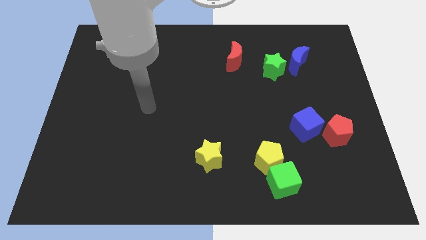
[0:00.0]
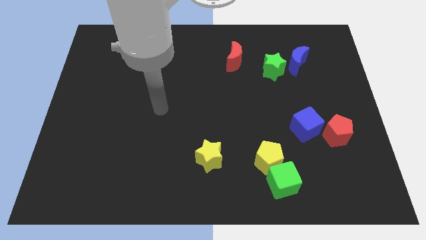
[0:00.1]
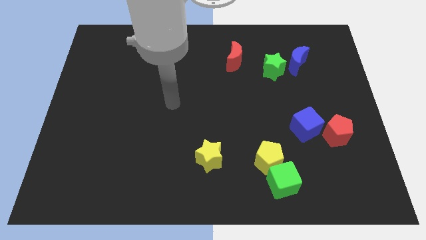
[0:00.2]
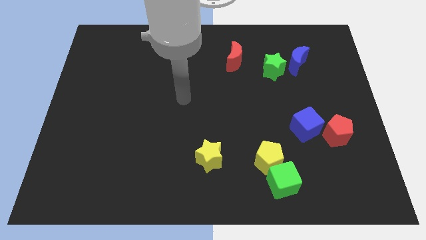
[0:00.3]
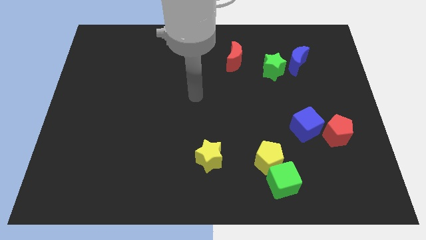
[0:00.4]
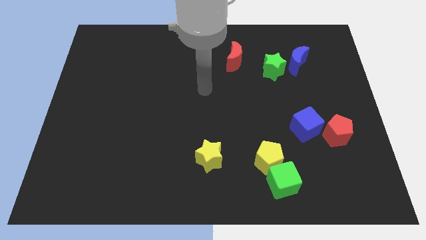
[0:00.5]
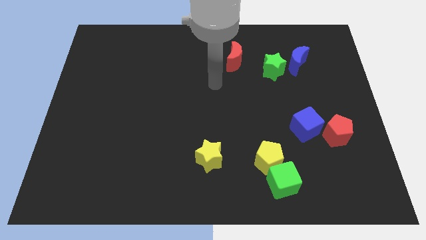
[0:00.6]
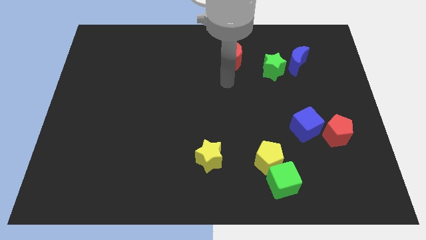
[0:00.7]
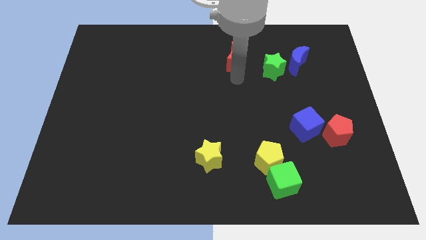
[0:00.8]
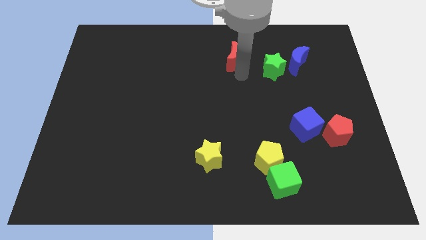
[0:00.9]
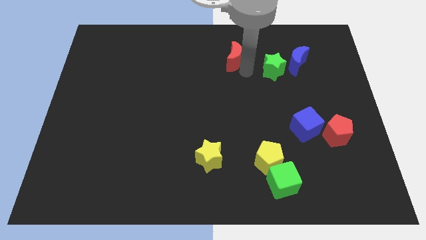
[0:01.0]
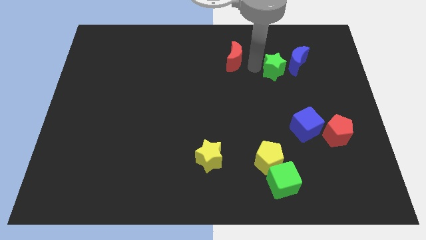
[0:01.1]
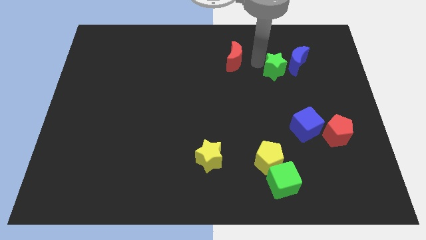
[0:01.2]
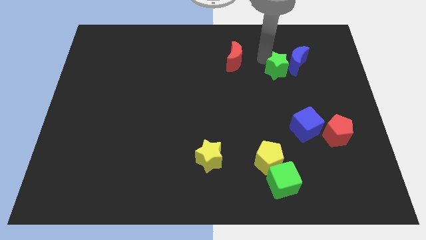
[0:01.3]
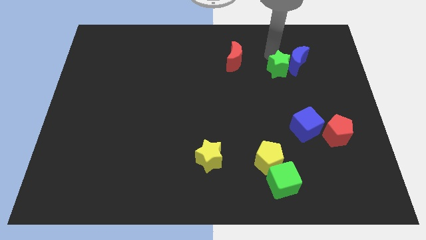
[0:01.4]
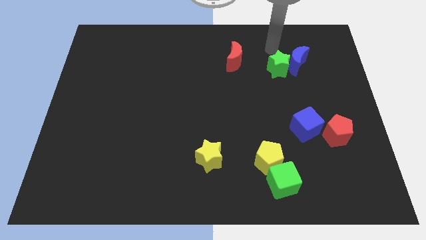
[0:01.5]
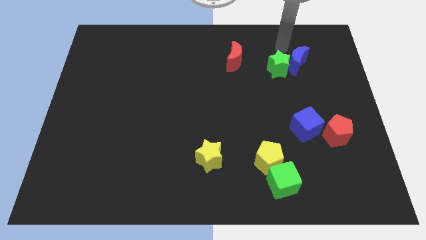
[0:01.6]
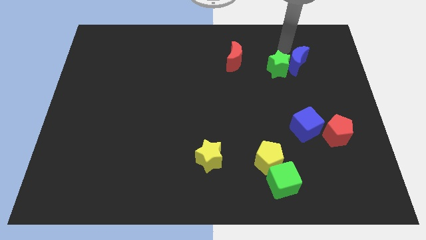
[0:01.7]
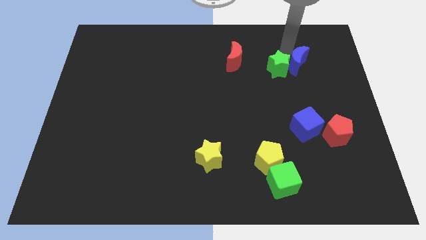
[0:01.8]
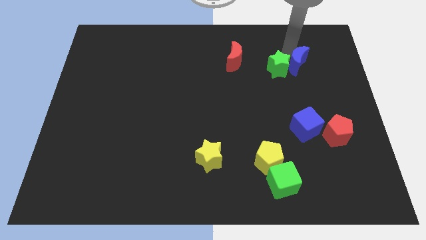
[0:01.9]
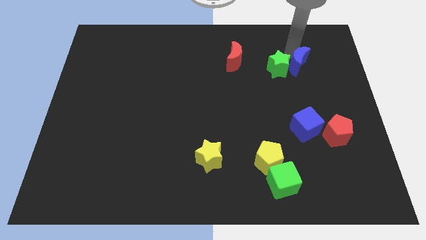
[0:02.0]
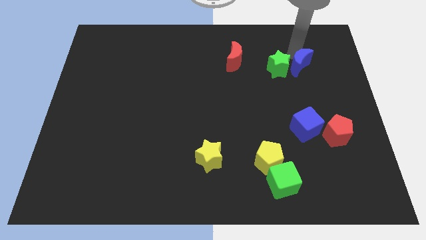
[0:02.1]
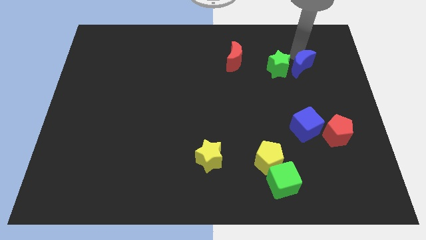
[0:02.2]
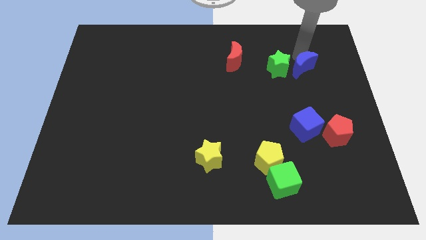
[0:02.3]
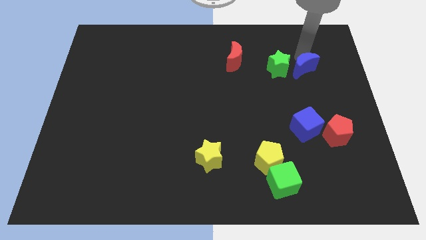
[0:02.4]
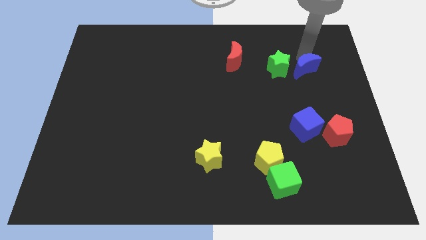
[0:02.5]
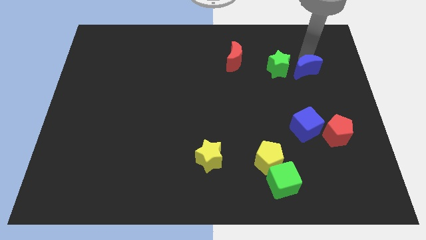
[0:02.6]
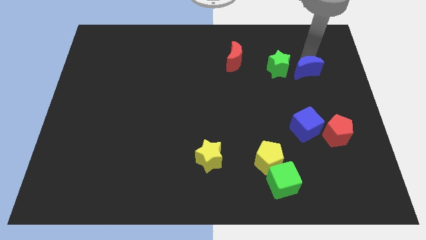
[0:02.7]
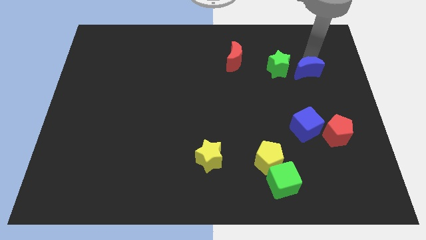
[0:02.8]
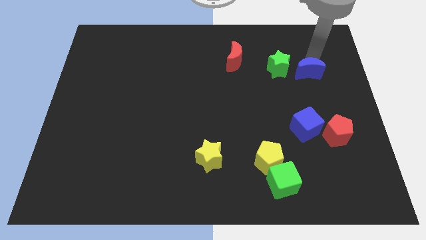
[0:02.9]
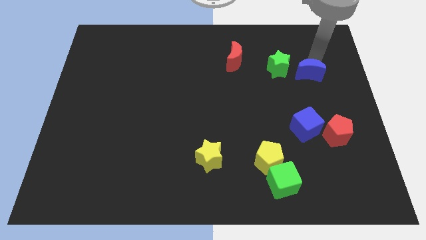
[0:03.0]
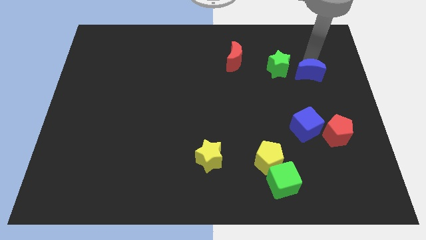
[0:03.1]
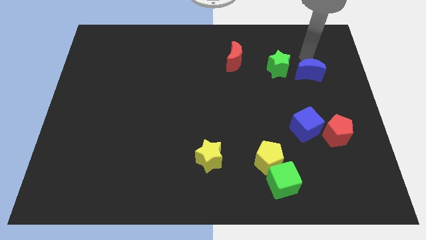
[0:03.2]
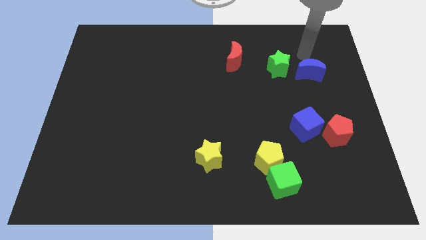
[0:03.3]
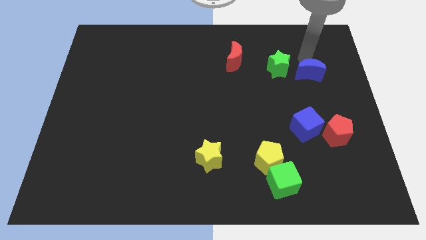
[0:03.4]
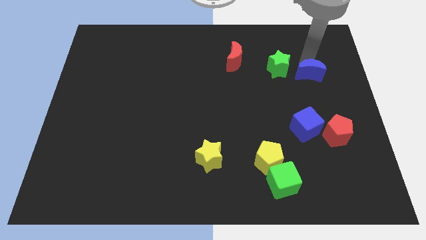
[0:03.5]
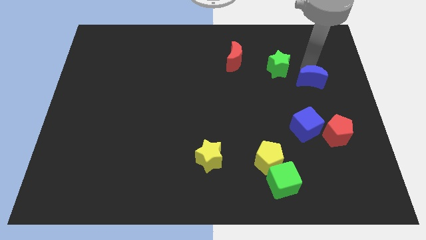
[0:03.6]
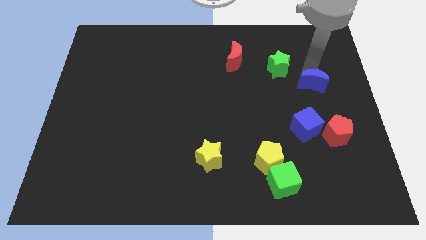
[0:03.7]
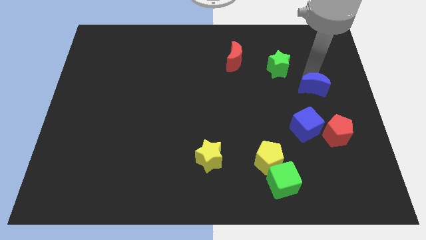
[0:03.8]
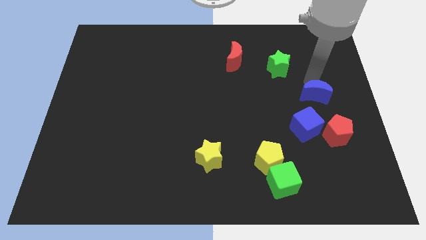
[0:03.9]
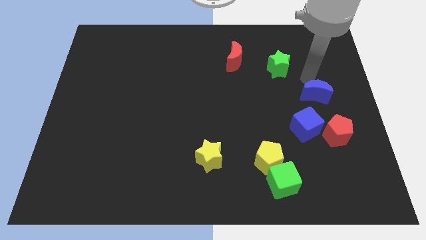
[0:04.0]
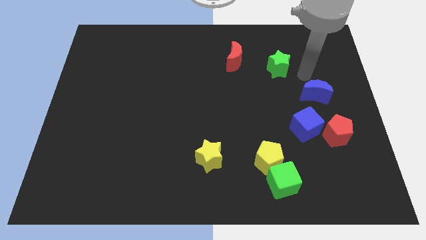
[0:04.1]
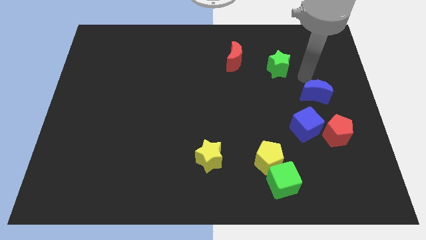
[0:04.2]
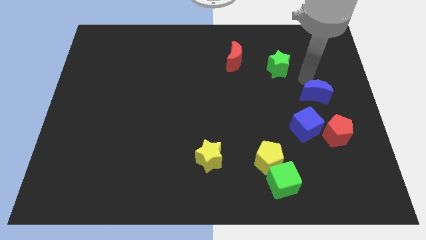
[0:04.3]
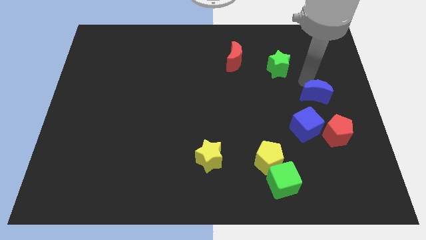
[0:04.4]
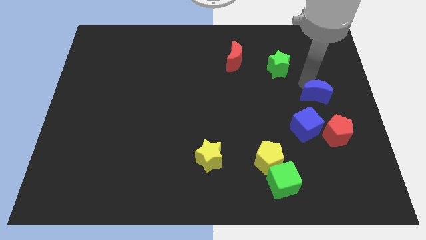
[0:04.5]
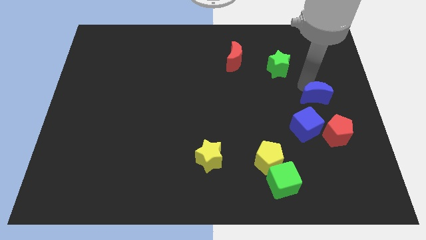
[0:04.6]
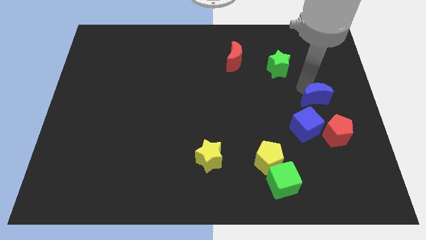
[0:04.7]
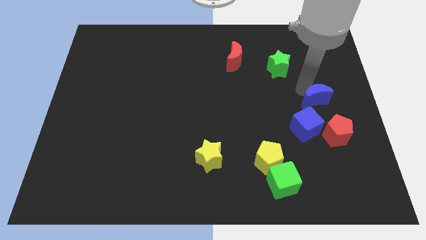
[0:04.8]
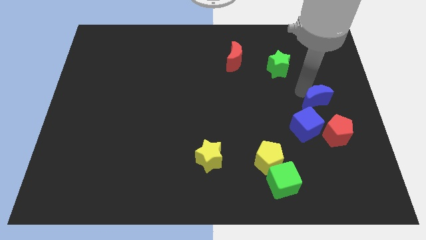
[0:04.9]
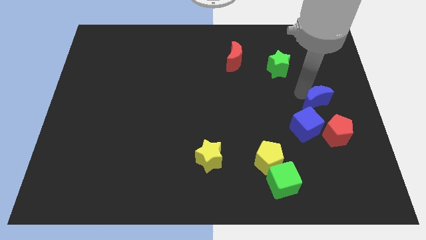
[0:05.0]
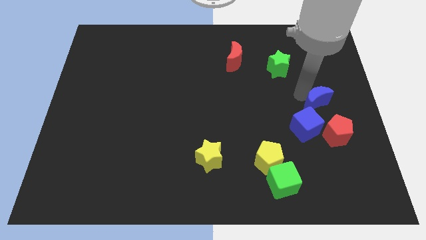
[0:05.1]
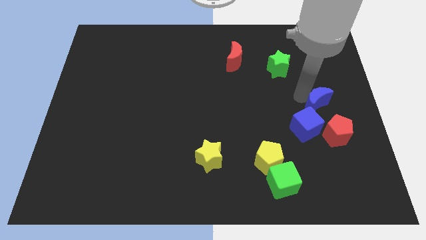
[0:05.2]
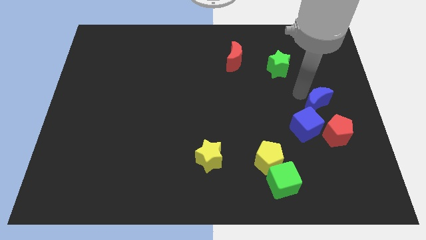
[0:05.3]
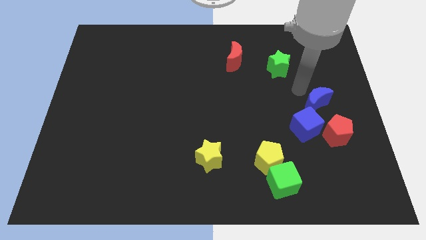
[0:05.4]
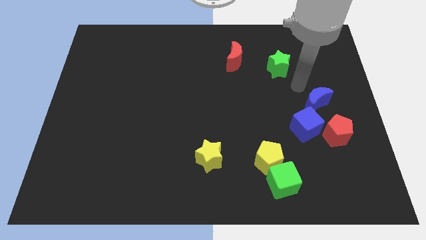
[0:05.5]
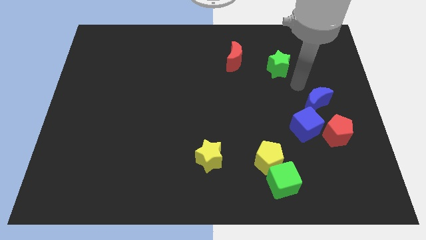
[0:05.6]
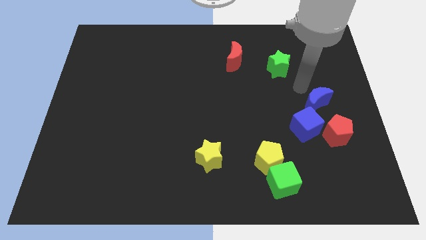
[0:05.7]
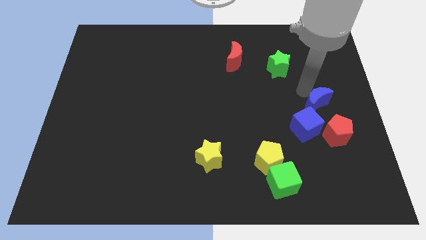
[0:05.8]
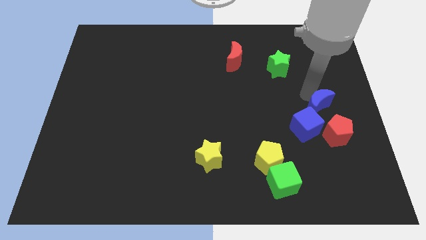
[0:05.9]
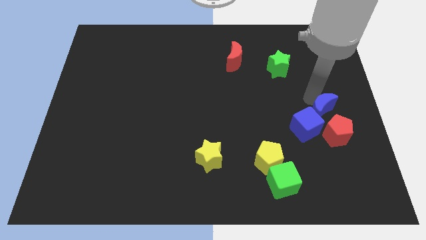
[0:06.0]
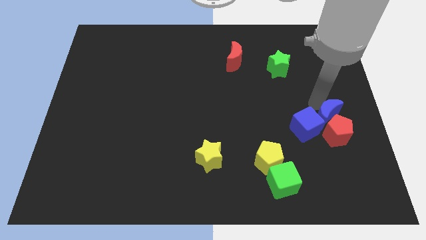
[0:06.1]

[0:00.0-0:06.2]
move the blue moon close to the red pentagon

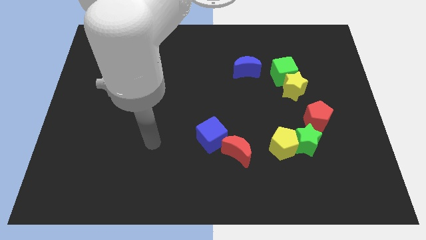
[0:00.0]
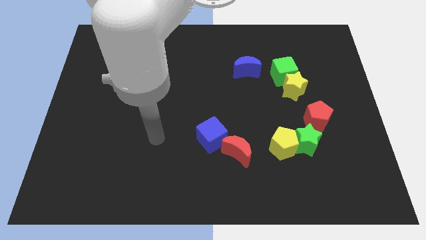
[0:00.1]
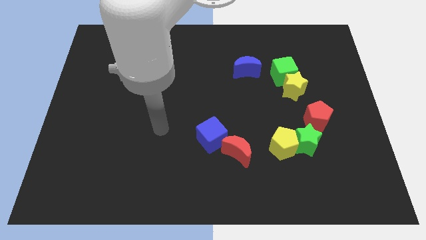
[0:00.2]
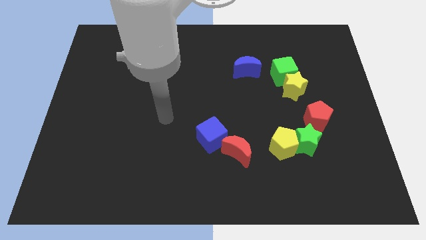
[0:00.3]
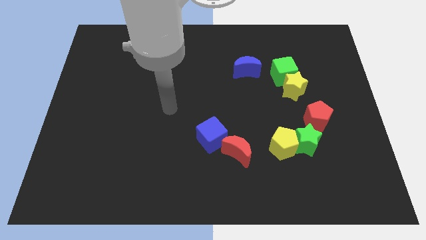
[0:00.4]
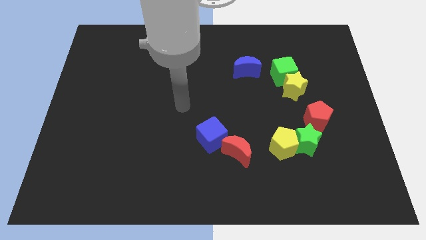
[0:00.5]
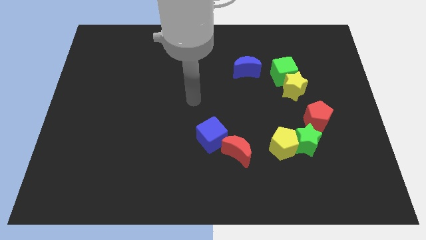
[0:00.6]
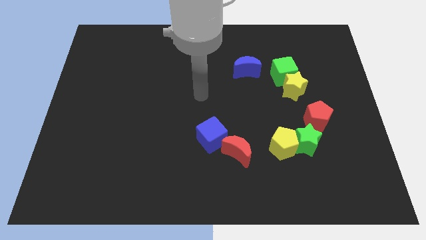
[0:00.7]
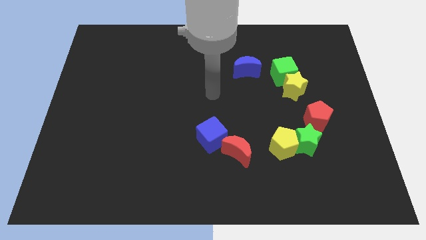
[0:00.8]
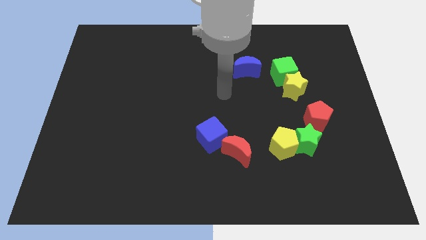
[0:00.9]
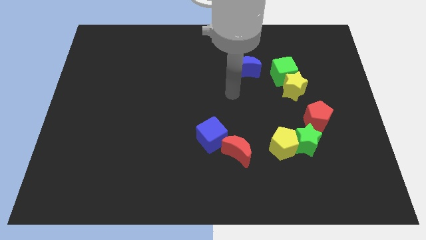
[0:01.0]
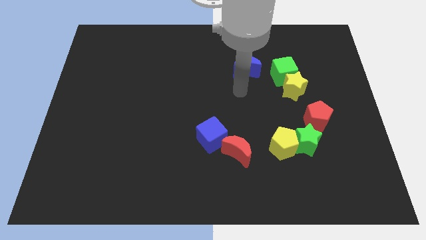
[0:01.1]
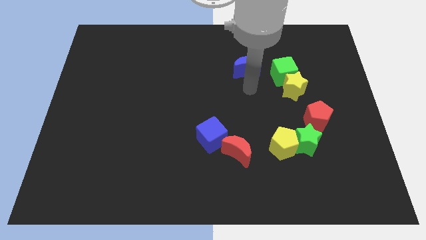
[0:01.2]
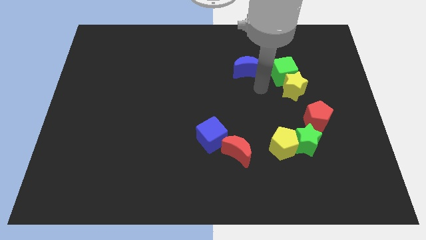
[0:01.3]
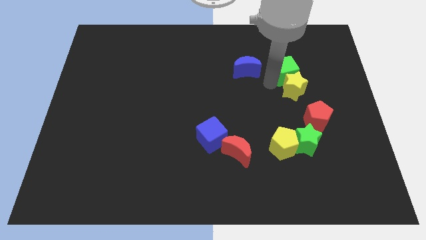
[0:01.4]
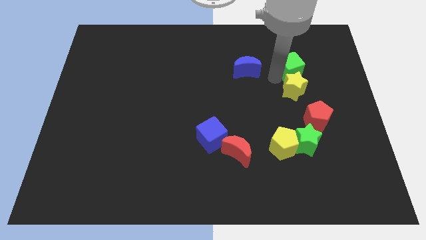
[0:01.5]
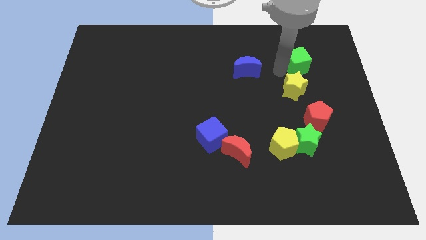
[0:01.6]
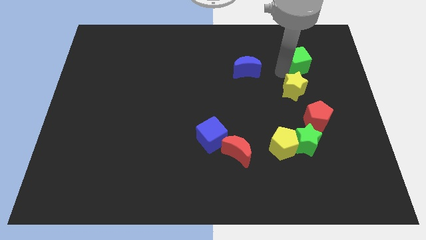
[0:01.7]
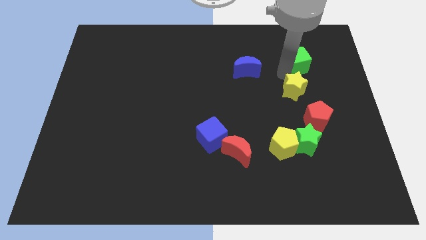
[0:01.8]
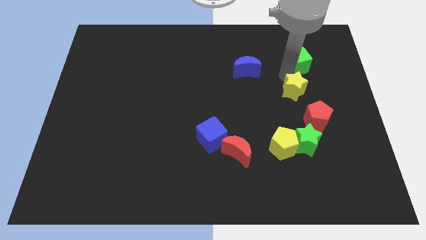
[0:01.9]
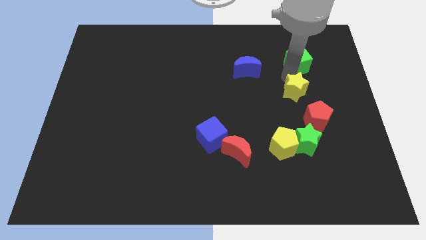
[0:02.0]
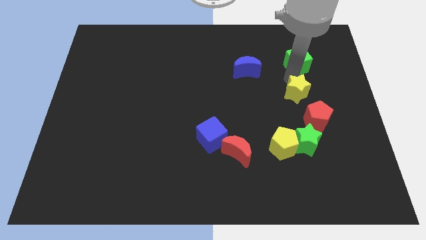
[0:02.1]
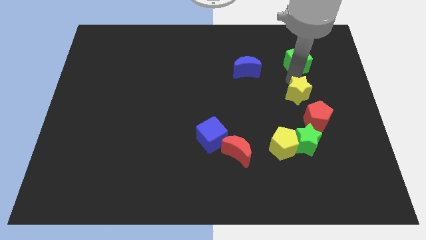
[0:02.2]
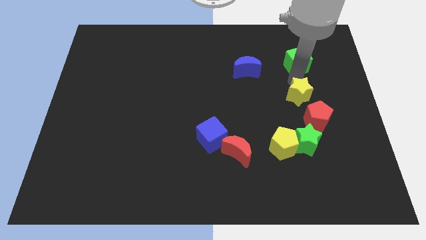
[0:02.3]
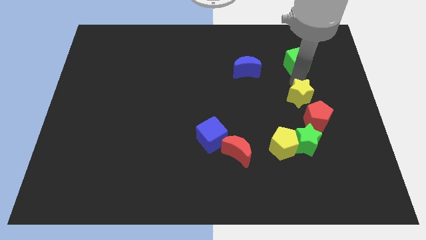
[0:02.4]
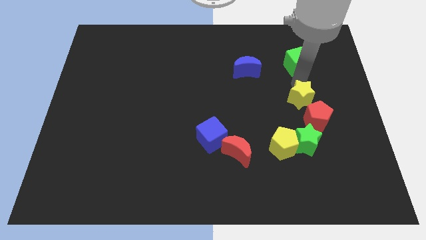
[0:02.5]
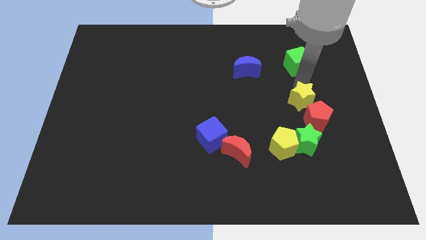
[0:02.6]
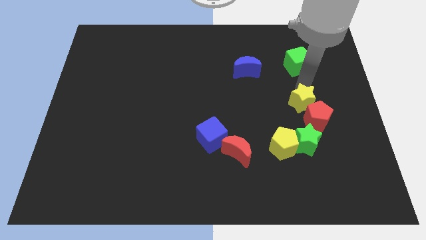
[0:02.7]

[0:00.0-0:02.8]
move the yellow star towards the red pentagon
